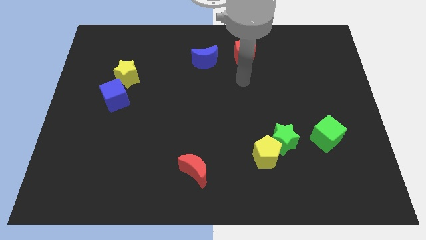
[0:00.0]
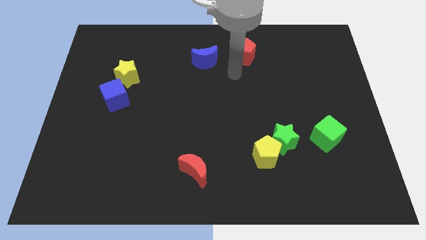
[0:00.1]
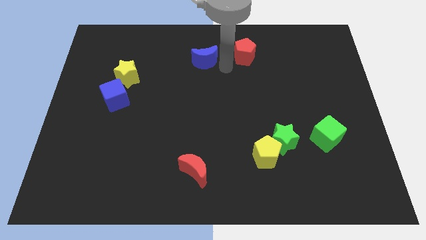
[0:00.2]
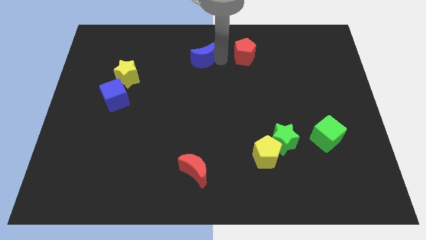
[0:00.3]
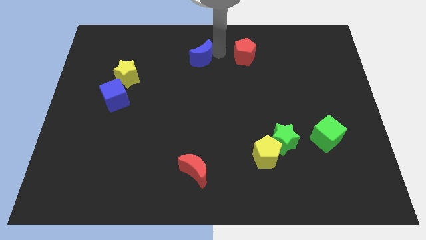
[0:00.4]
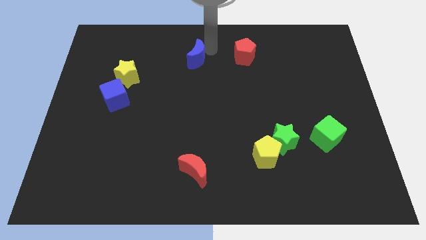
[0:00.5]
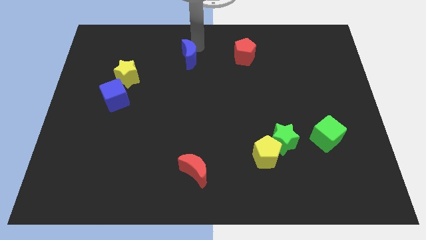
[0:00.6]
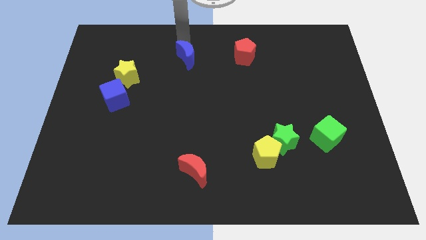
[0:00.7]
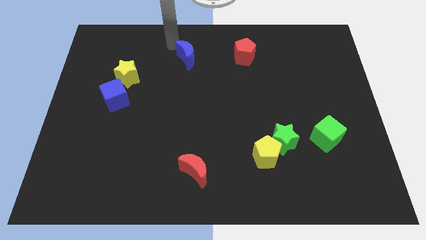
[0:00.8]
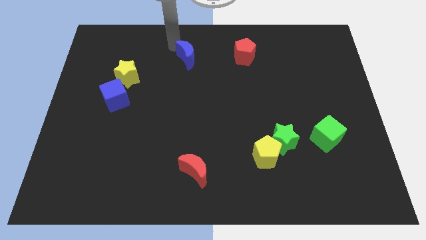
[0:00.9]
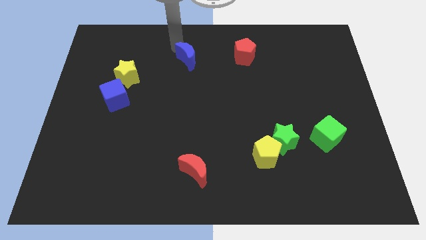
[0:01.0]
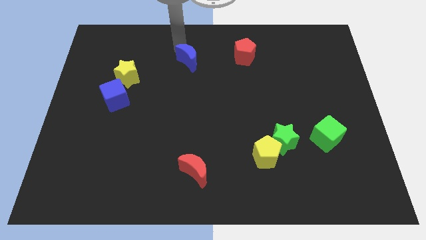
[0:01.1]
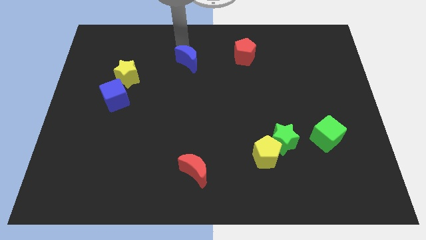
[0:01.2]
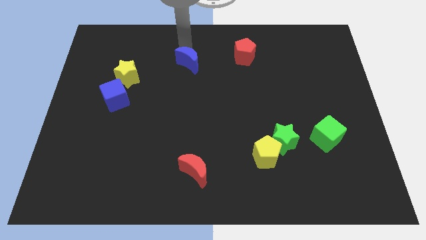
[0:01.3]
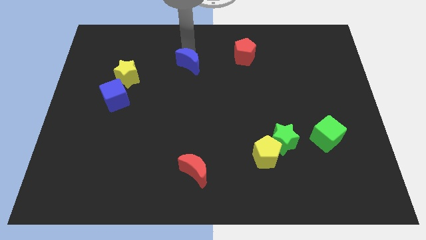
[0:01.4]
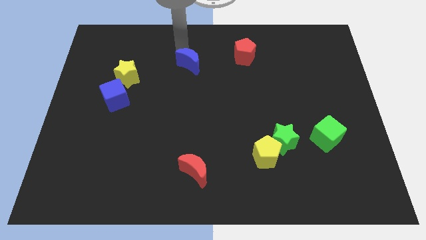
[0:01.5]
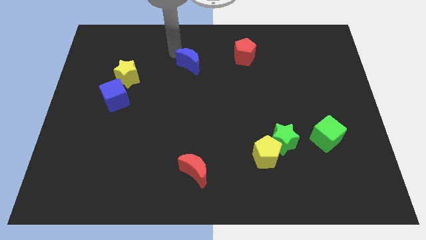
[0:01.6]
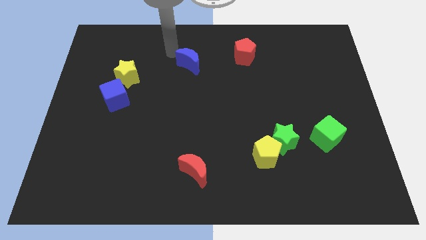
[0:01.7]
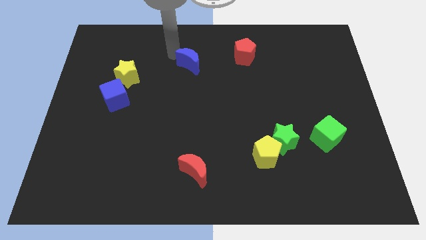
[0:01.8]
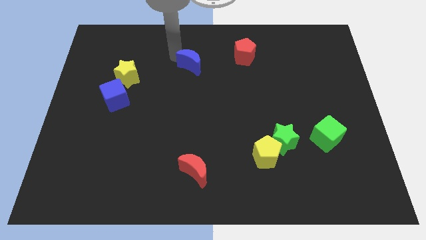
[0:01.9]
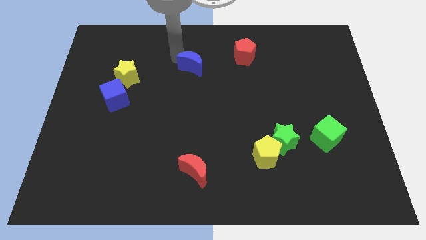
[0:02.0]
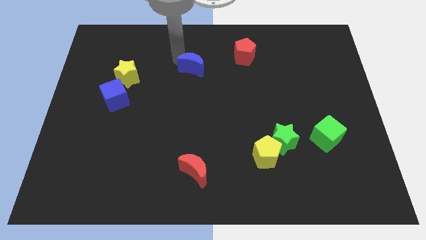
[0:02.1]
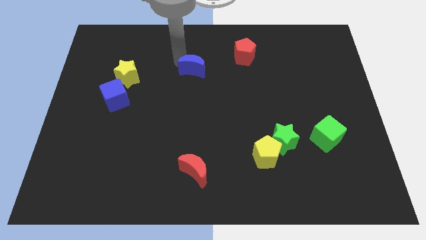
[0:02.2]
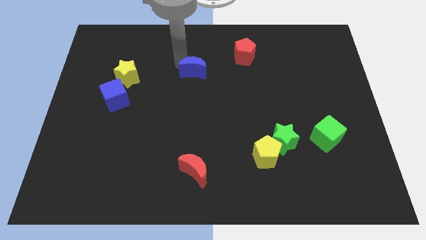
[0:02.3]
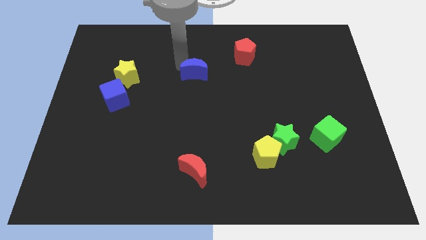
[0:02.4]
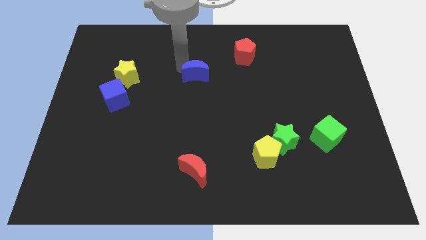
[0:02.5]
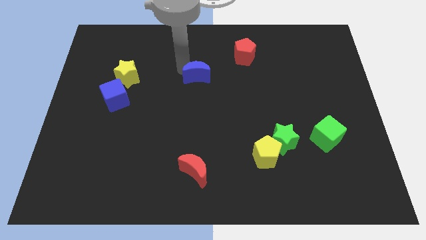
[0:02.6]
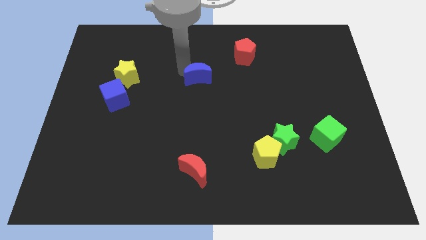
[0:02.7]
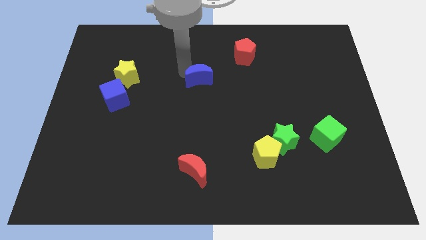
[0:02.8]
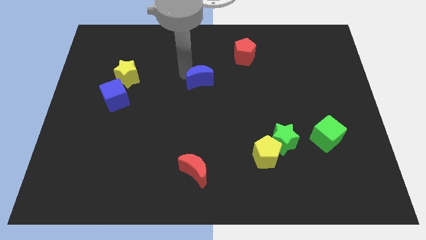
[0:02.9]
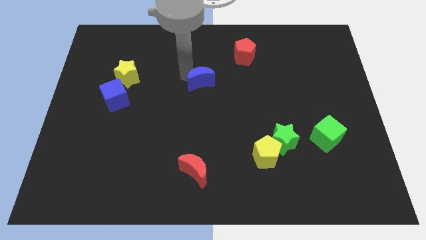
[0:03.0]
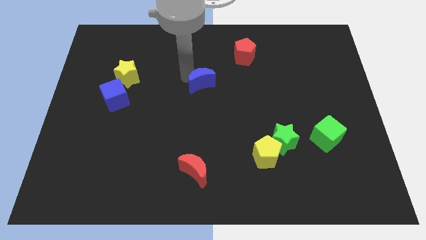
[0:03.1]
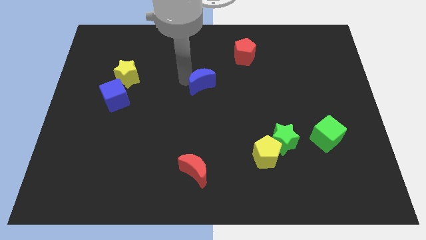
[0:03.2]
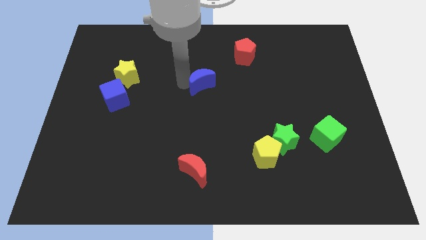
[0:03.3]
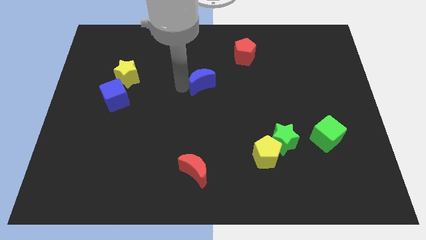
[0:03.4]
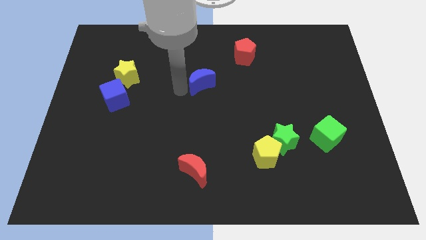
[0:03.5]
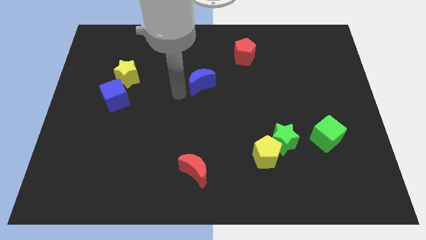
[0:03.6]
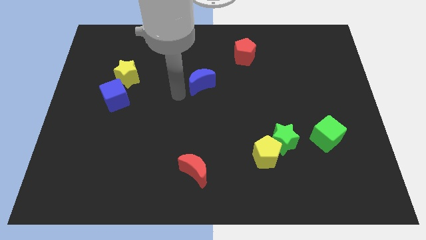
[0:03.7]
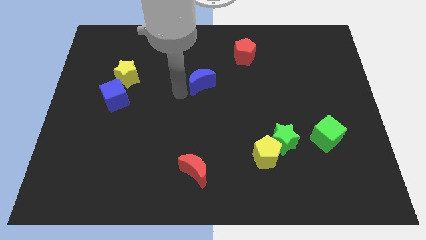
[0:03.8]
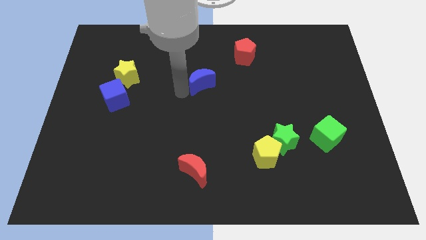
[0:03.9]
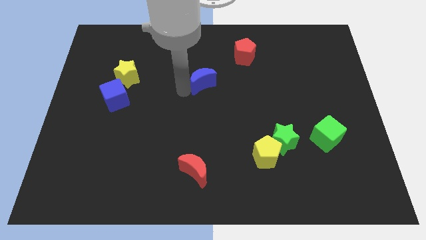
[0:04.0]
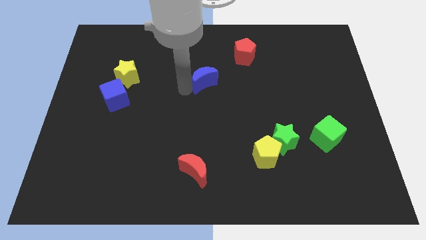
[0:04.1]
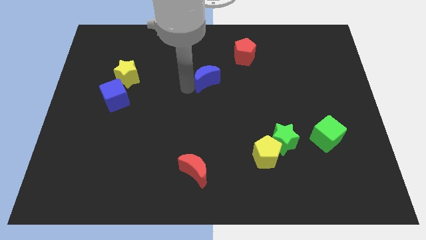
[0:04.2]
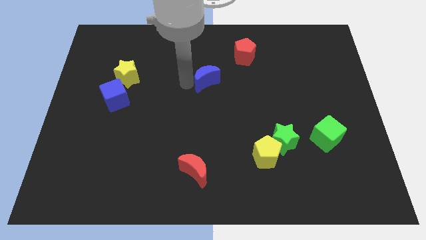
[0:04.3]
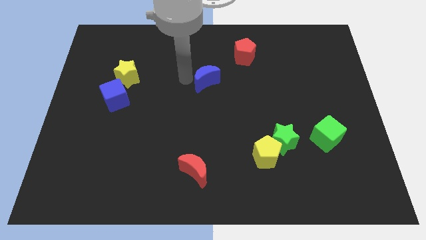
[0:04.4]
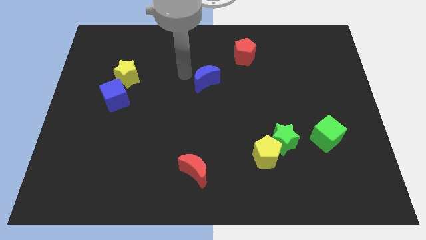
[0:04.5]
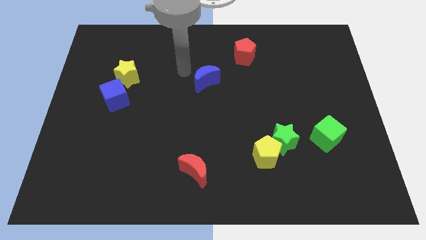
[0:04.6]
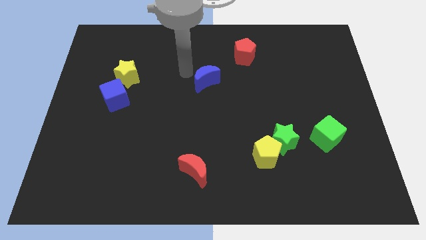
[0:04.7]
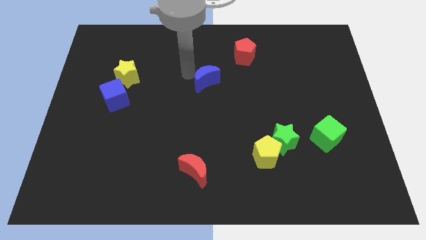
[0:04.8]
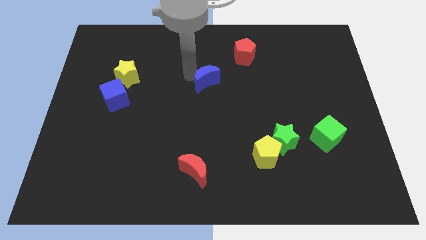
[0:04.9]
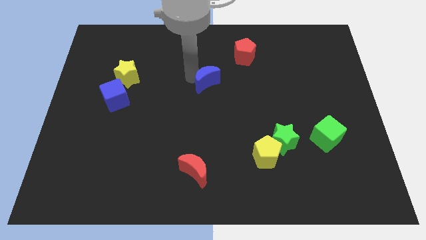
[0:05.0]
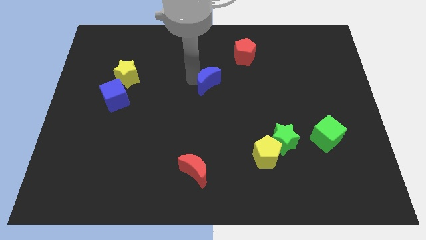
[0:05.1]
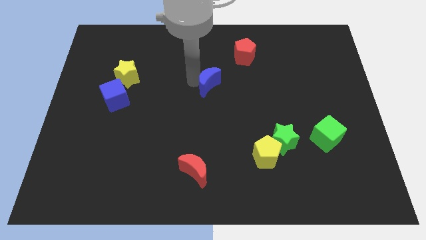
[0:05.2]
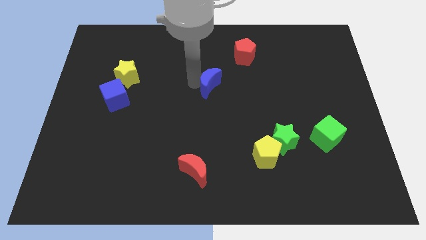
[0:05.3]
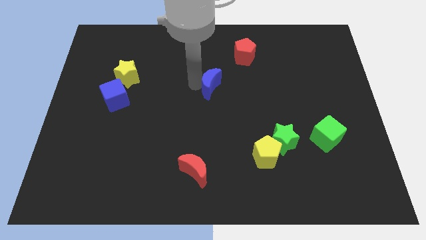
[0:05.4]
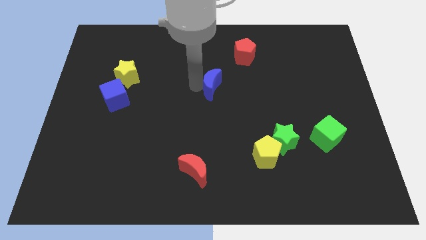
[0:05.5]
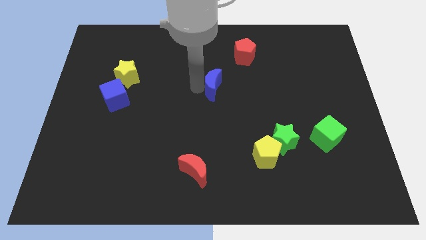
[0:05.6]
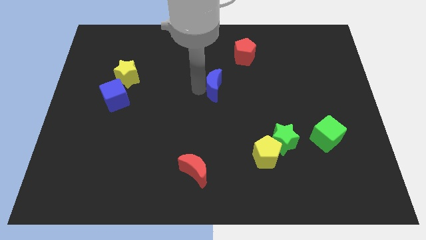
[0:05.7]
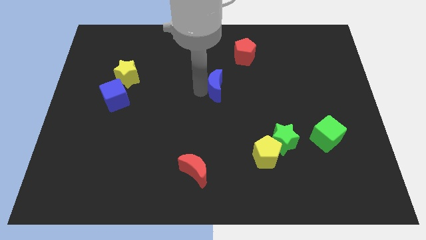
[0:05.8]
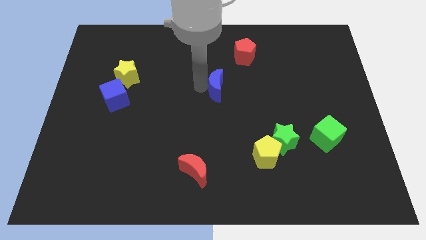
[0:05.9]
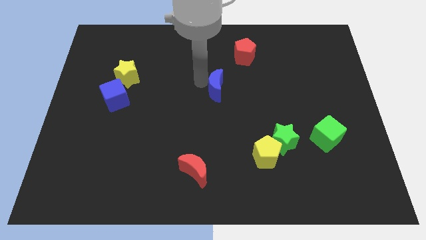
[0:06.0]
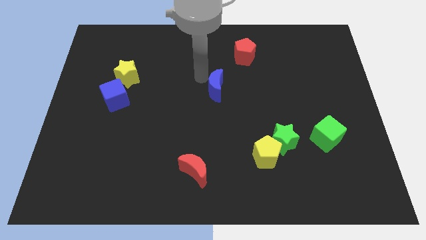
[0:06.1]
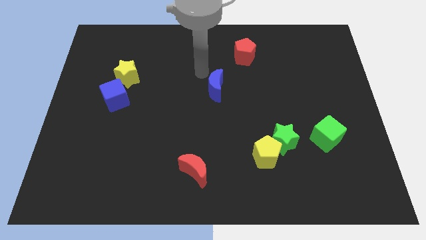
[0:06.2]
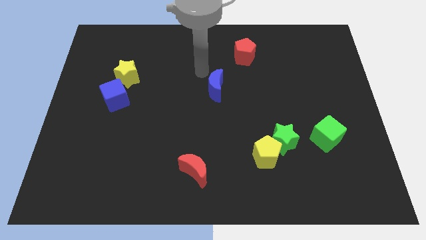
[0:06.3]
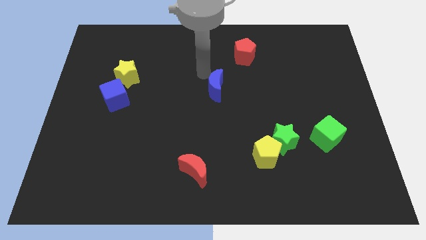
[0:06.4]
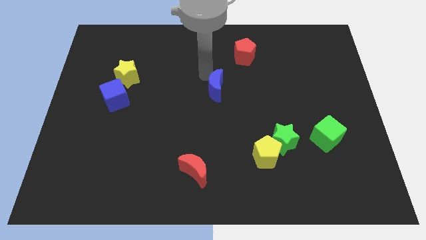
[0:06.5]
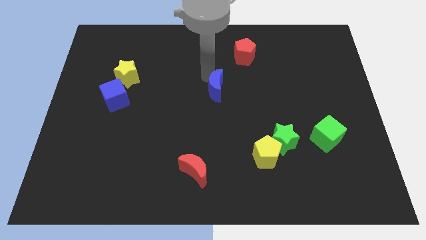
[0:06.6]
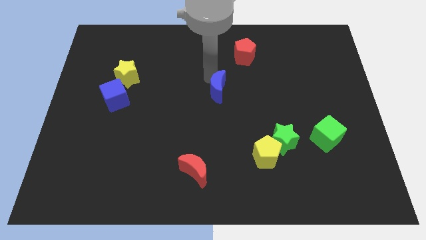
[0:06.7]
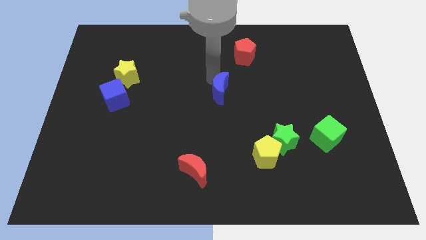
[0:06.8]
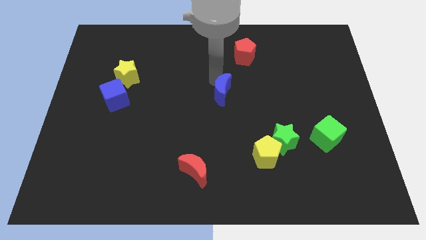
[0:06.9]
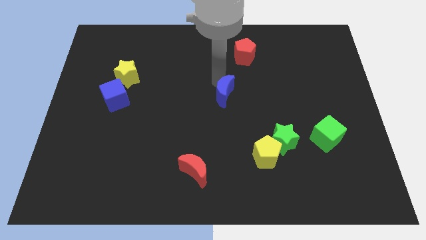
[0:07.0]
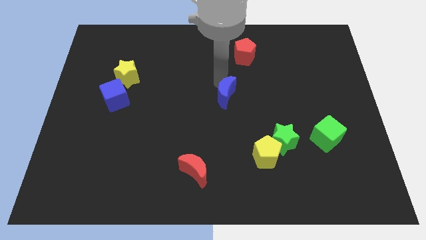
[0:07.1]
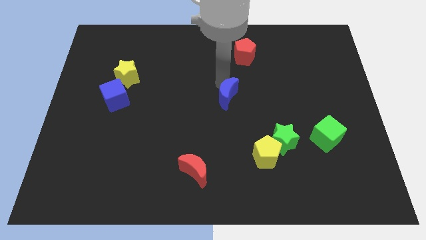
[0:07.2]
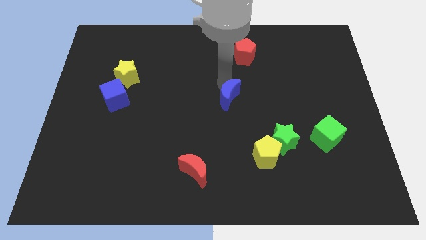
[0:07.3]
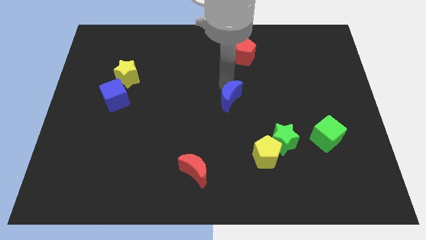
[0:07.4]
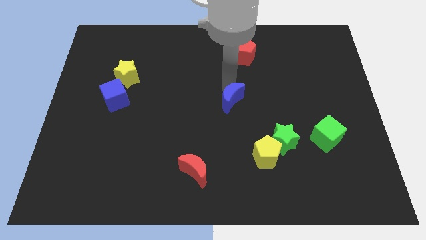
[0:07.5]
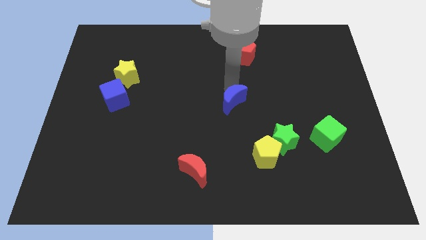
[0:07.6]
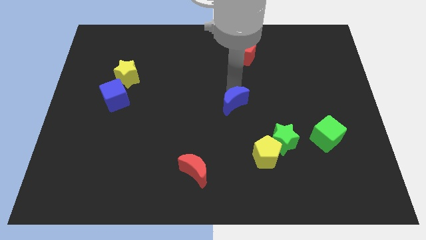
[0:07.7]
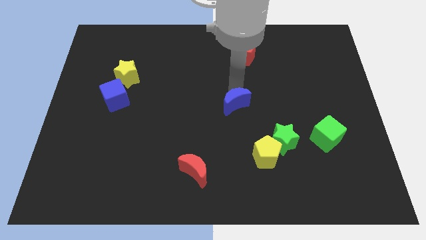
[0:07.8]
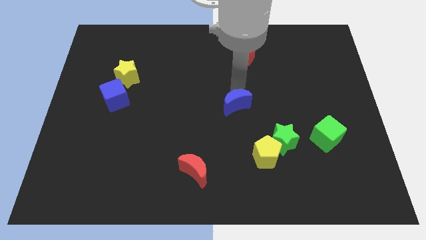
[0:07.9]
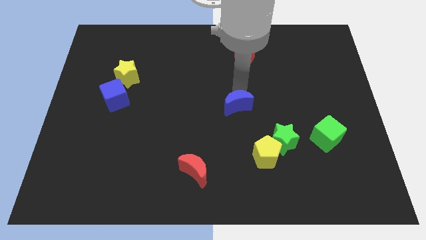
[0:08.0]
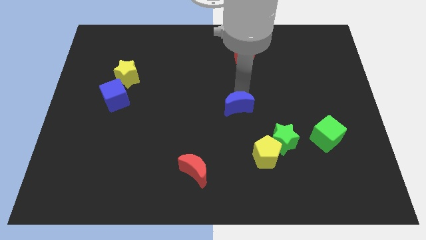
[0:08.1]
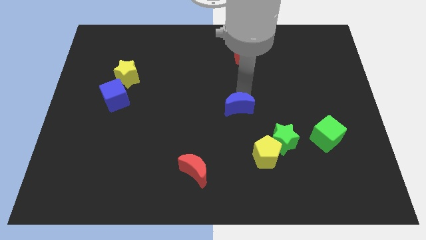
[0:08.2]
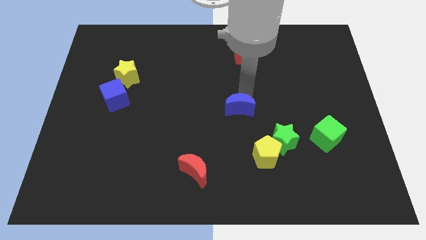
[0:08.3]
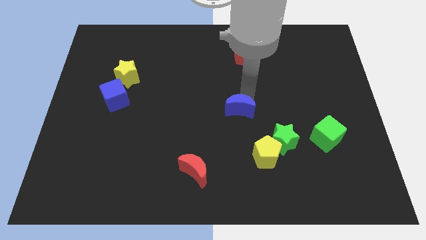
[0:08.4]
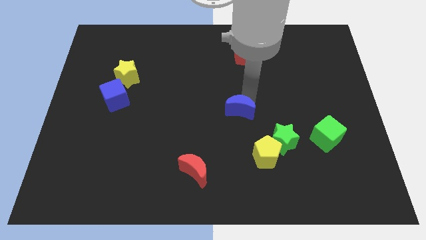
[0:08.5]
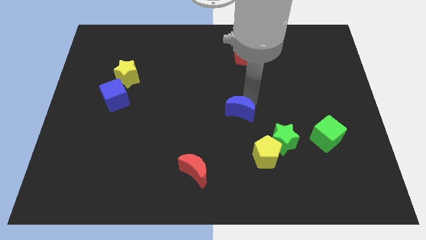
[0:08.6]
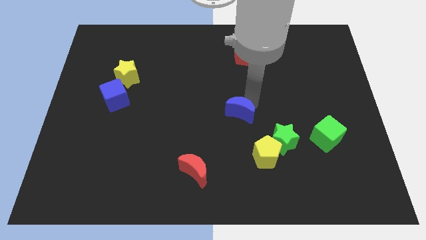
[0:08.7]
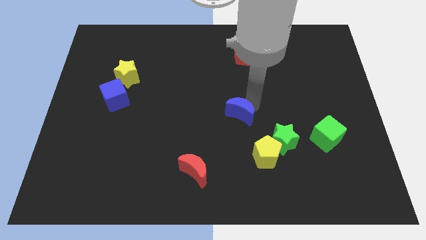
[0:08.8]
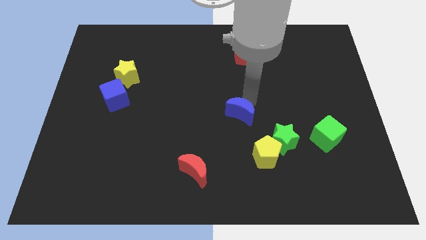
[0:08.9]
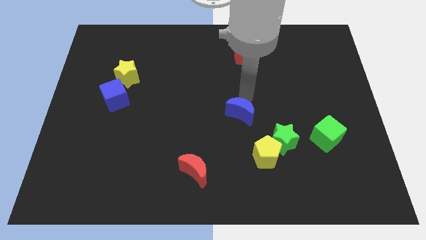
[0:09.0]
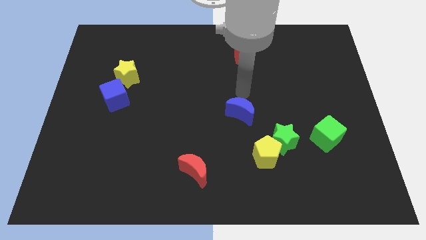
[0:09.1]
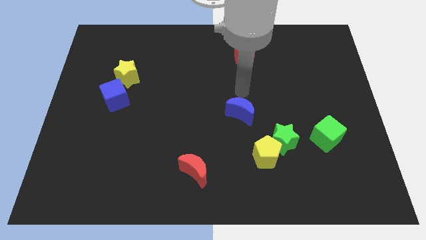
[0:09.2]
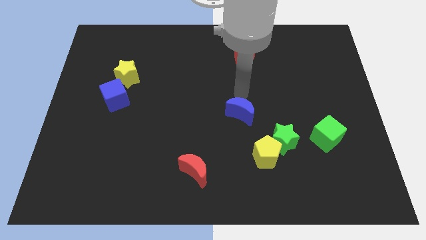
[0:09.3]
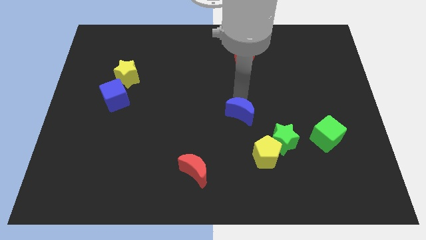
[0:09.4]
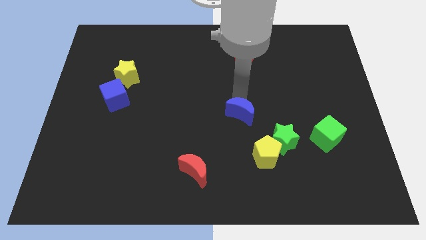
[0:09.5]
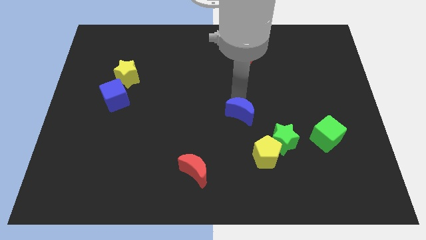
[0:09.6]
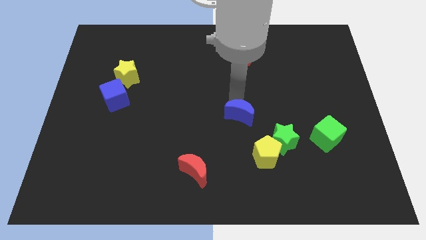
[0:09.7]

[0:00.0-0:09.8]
move the blue moon to the top left side of the yellow pentagon
